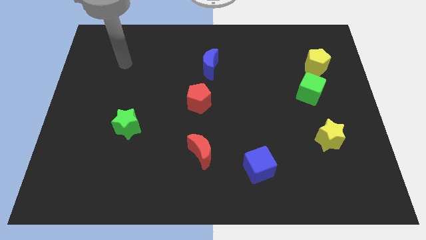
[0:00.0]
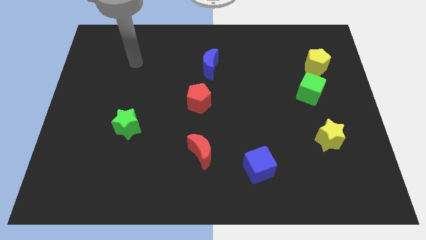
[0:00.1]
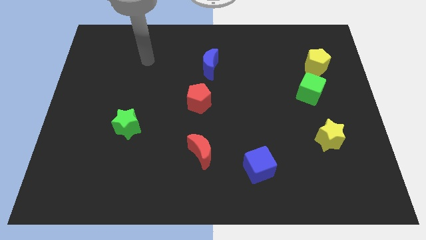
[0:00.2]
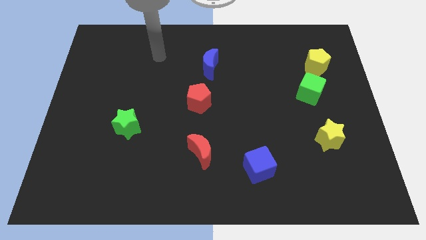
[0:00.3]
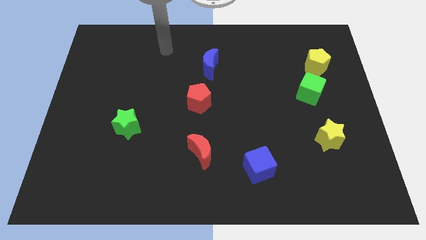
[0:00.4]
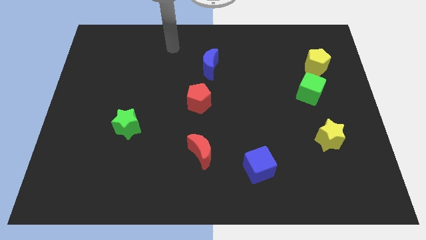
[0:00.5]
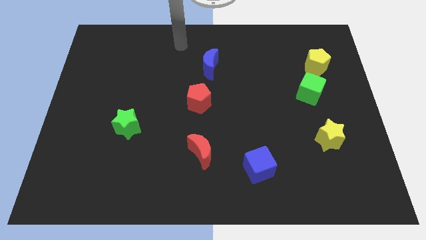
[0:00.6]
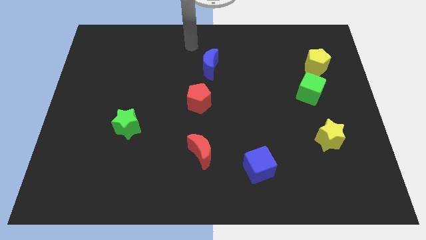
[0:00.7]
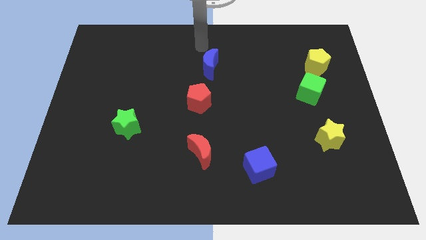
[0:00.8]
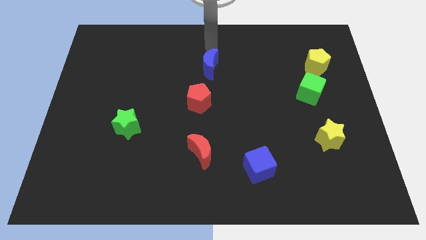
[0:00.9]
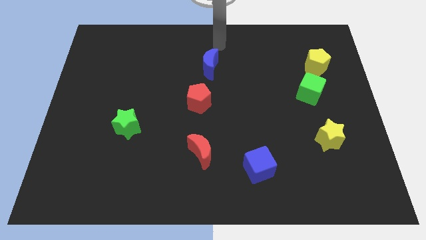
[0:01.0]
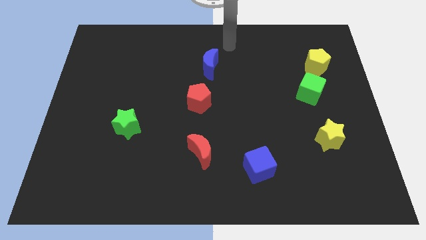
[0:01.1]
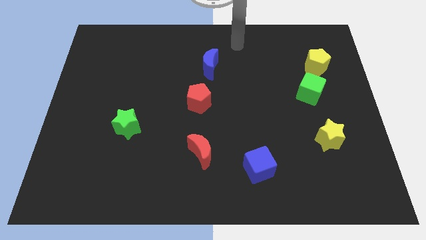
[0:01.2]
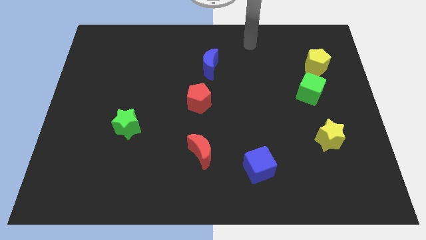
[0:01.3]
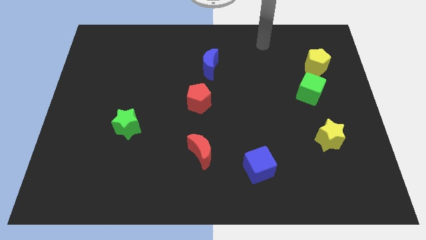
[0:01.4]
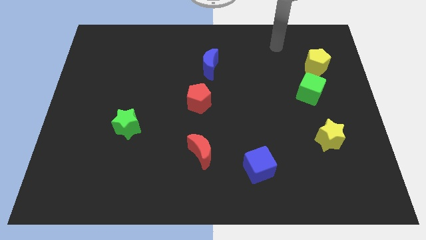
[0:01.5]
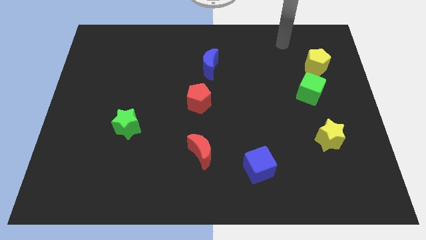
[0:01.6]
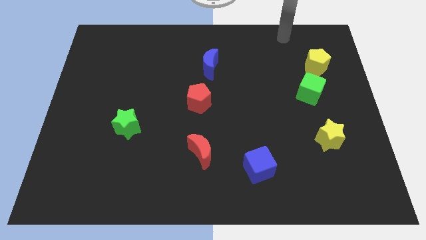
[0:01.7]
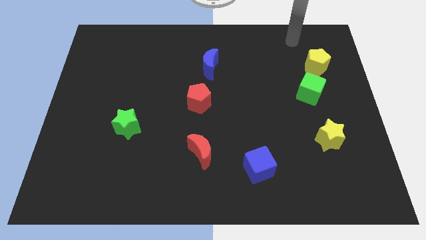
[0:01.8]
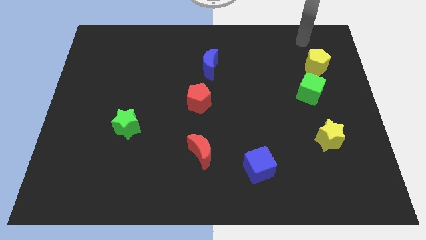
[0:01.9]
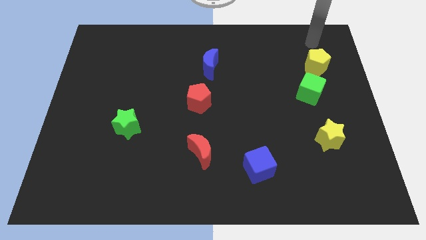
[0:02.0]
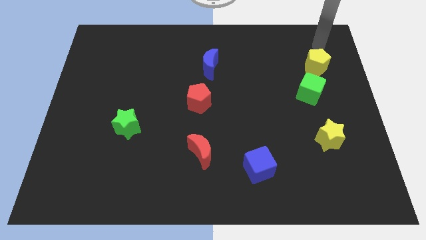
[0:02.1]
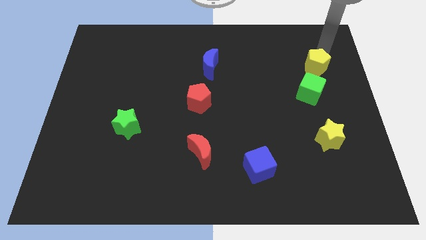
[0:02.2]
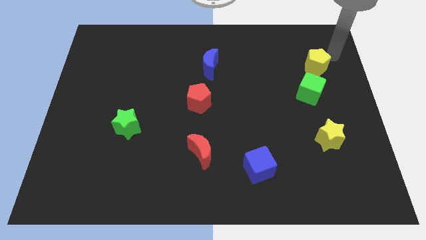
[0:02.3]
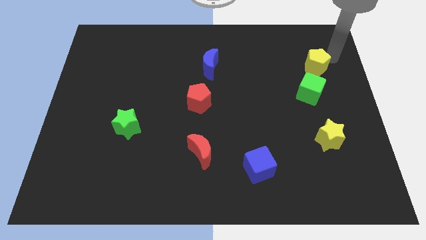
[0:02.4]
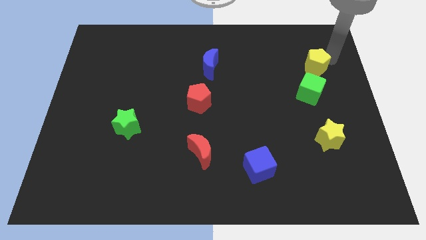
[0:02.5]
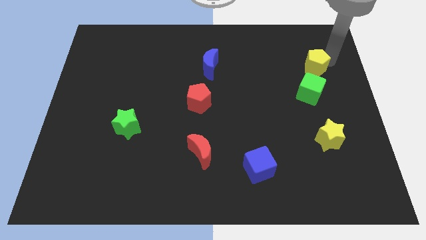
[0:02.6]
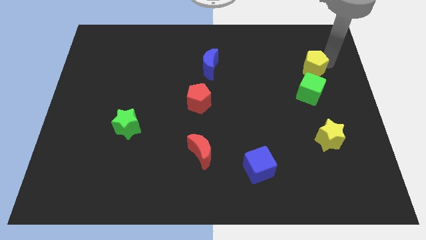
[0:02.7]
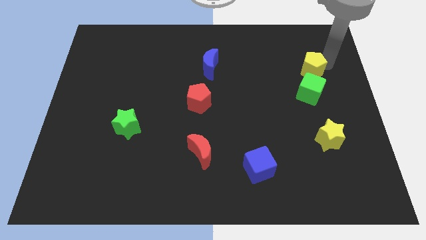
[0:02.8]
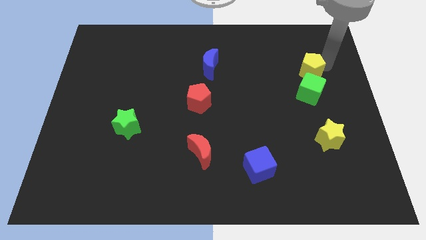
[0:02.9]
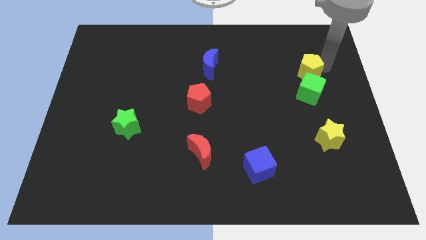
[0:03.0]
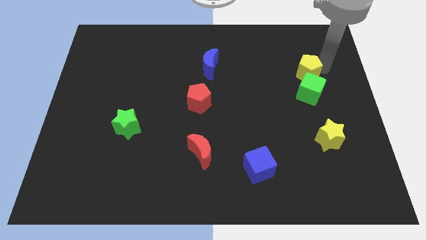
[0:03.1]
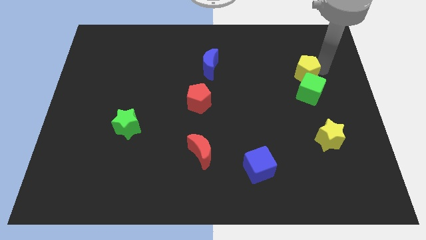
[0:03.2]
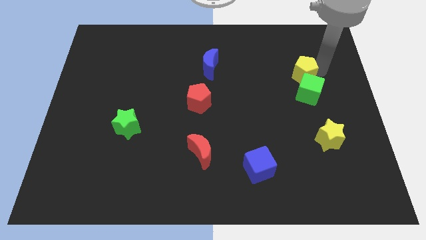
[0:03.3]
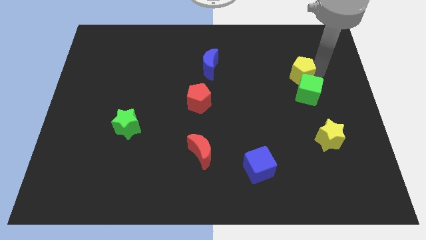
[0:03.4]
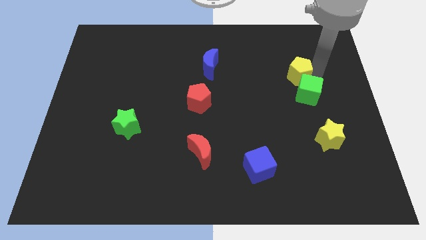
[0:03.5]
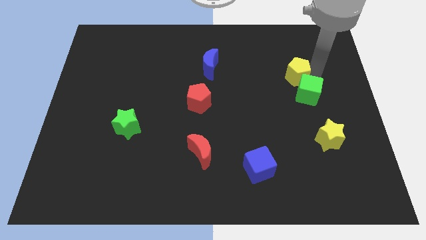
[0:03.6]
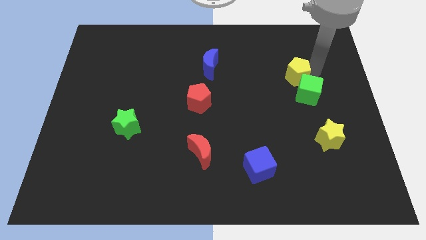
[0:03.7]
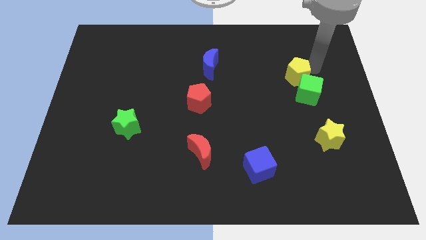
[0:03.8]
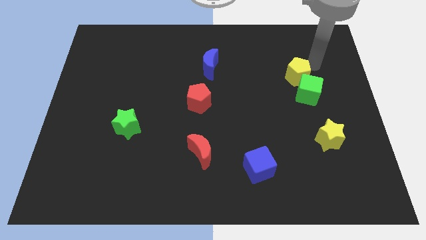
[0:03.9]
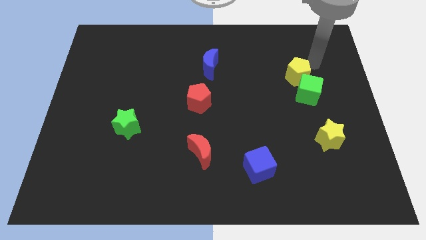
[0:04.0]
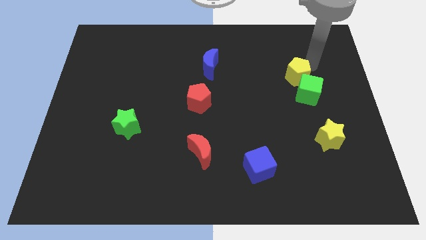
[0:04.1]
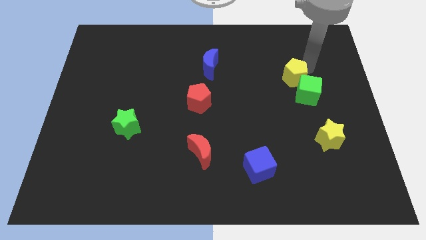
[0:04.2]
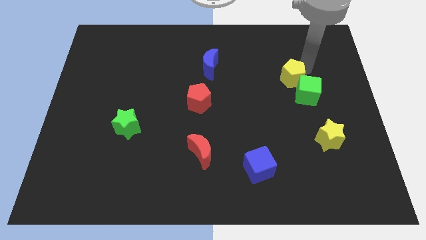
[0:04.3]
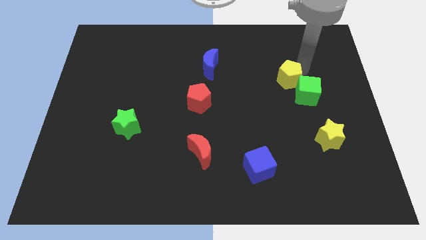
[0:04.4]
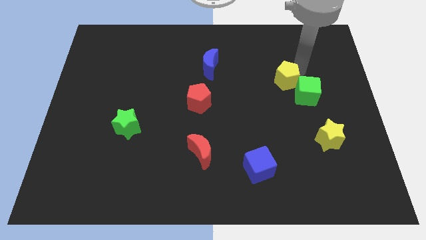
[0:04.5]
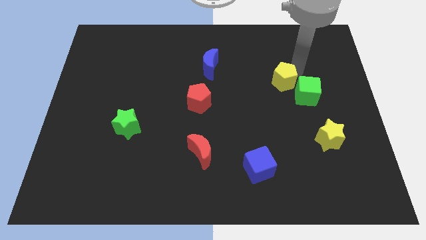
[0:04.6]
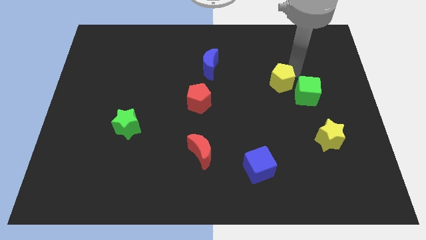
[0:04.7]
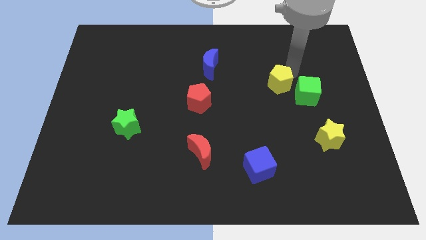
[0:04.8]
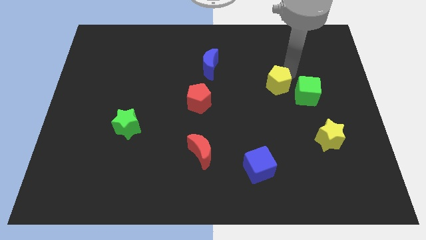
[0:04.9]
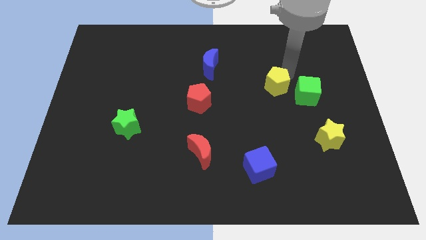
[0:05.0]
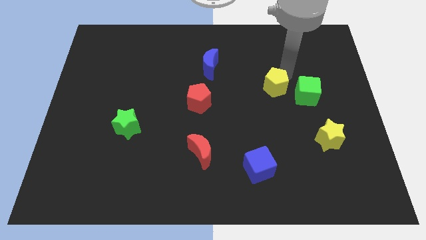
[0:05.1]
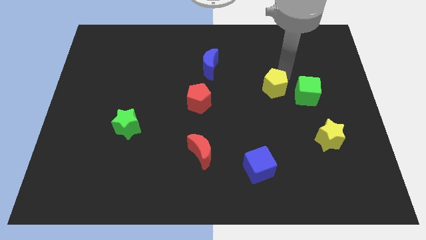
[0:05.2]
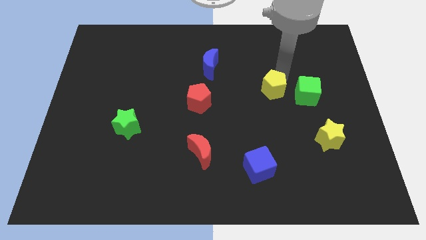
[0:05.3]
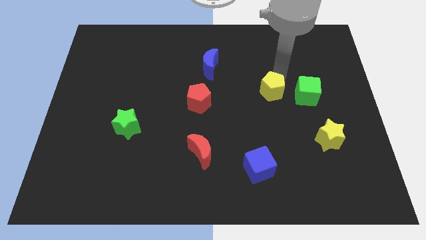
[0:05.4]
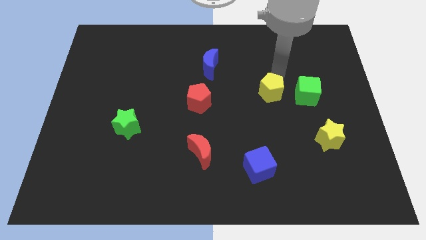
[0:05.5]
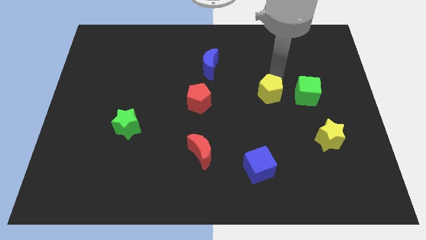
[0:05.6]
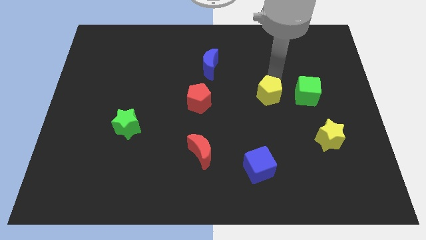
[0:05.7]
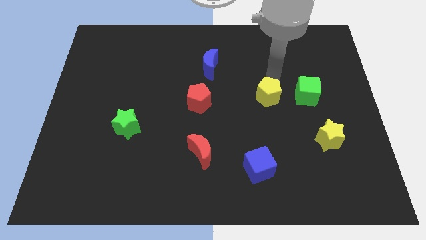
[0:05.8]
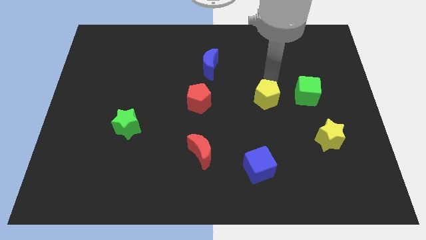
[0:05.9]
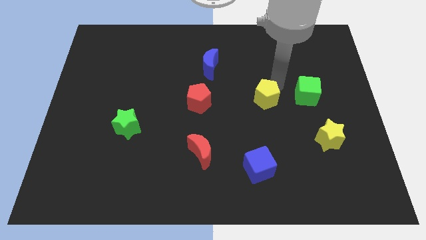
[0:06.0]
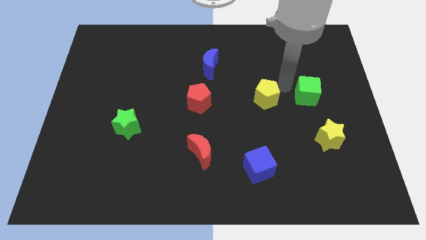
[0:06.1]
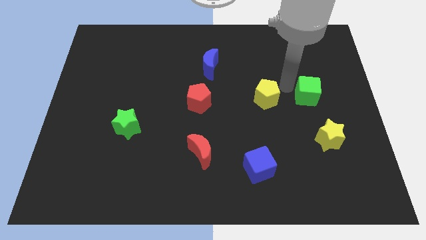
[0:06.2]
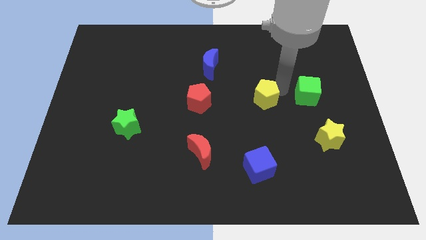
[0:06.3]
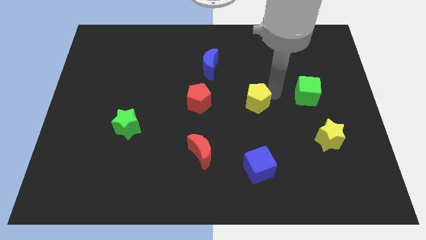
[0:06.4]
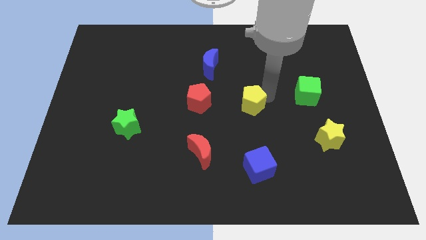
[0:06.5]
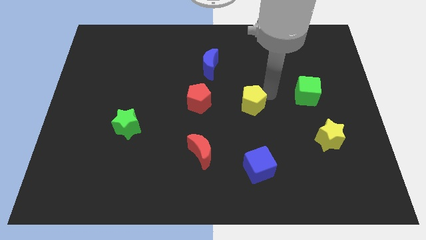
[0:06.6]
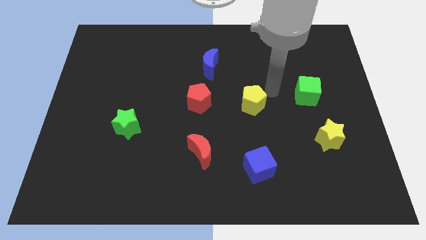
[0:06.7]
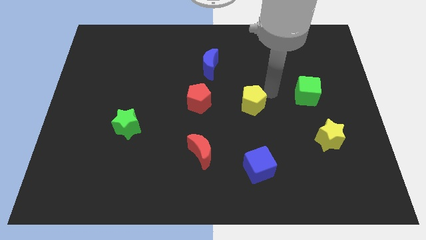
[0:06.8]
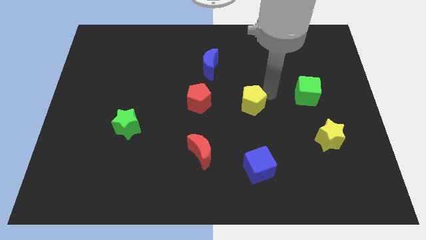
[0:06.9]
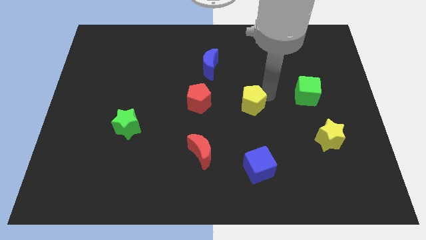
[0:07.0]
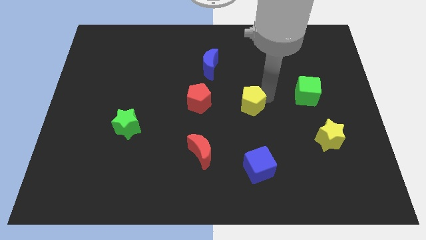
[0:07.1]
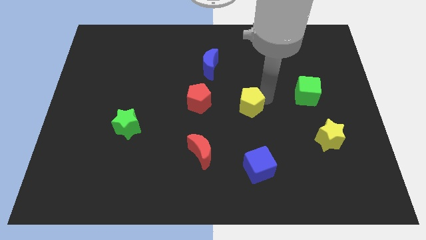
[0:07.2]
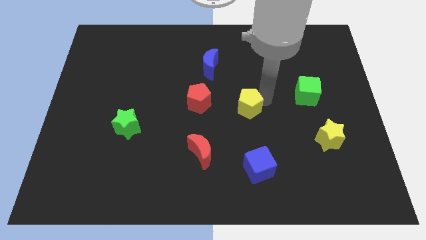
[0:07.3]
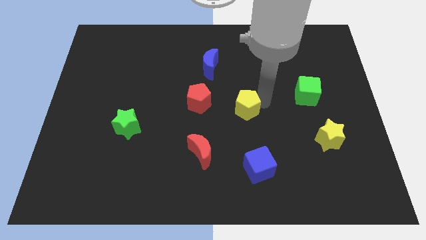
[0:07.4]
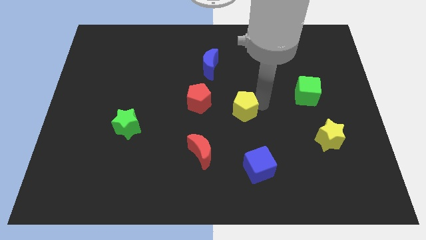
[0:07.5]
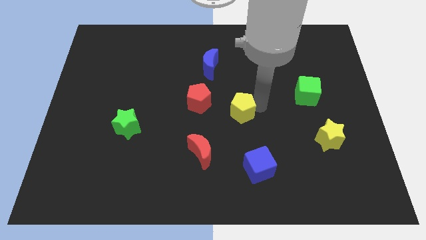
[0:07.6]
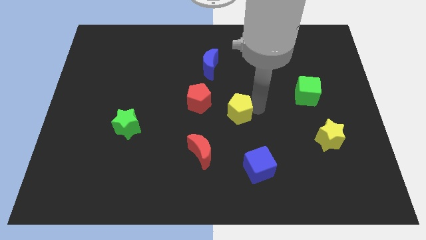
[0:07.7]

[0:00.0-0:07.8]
move the yellow pentagon to the bottom right side of the red pentagon
